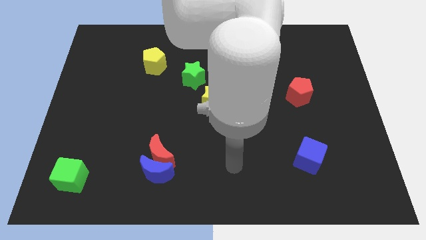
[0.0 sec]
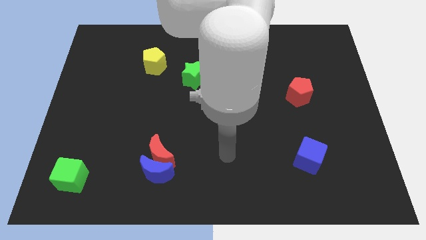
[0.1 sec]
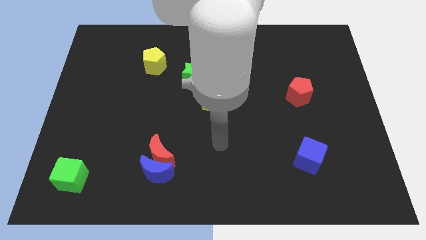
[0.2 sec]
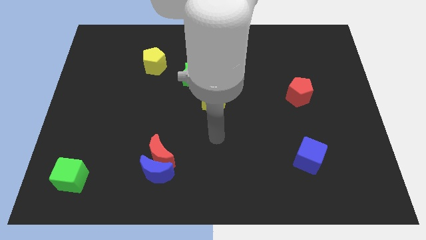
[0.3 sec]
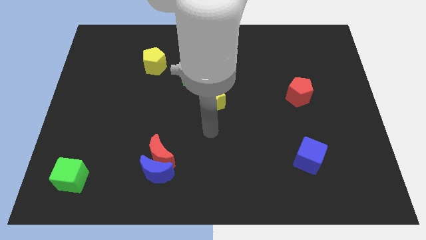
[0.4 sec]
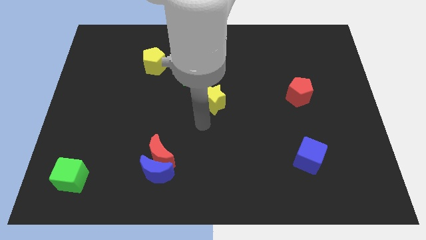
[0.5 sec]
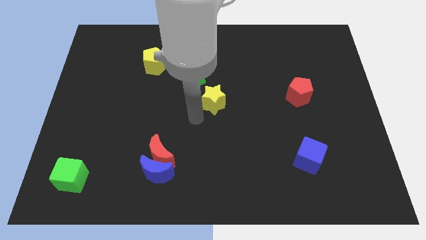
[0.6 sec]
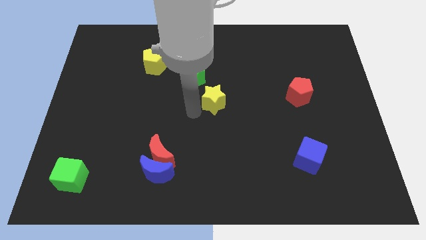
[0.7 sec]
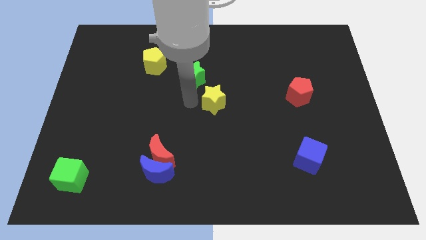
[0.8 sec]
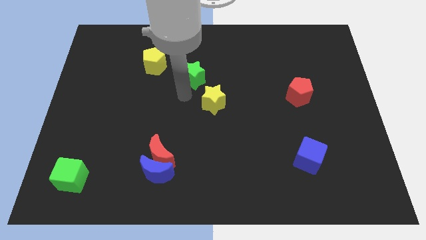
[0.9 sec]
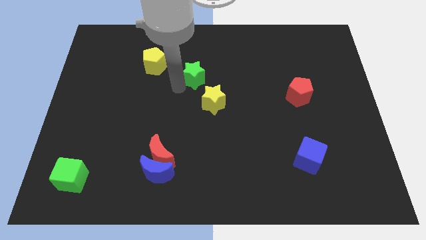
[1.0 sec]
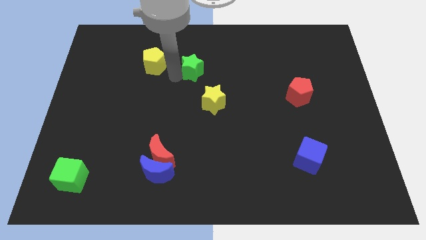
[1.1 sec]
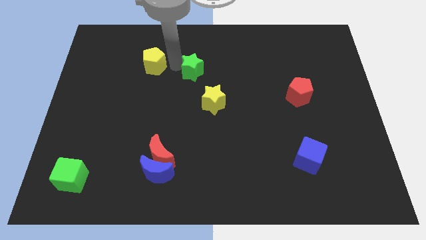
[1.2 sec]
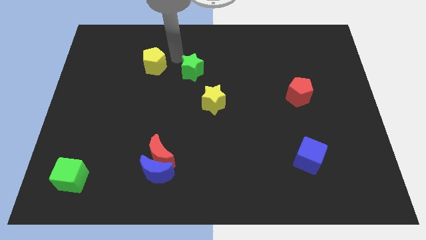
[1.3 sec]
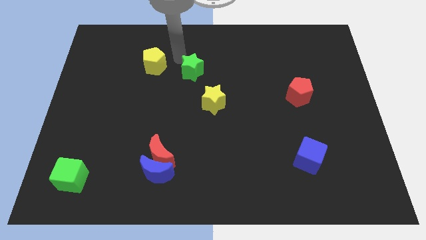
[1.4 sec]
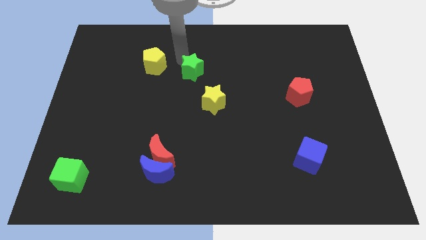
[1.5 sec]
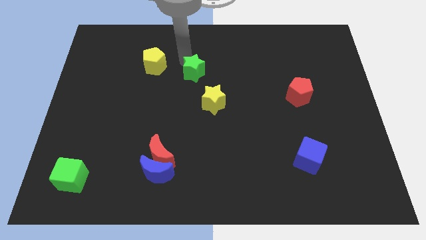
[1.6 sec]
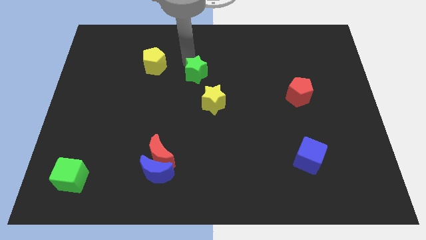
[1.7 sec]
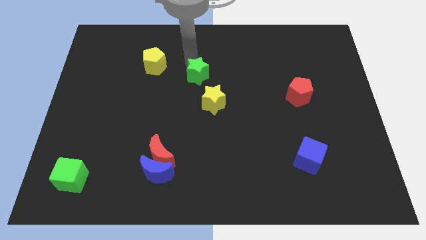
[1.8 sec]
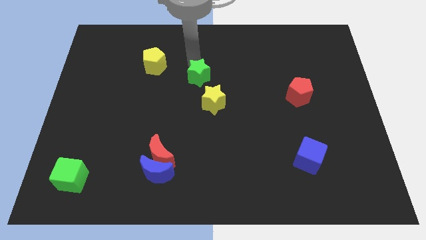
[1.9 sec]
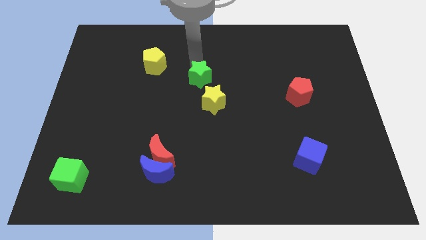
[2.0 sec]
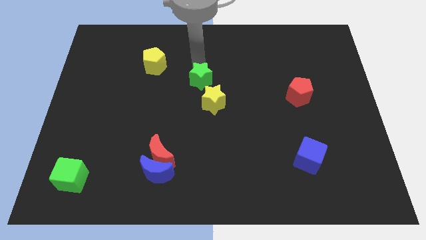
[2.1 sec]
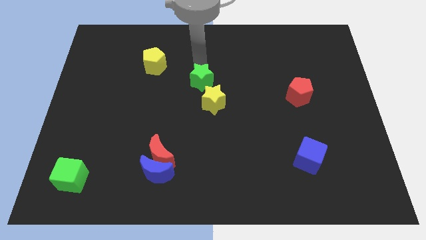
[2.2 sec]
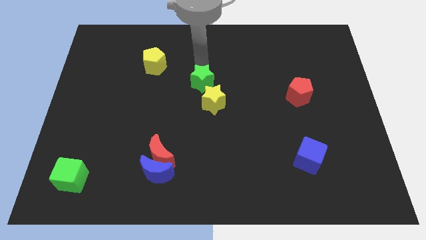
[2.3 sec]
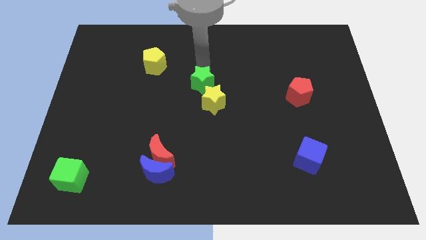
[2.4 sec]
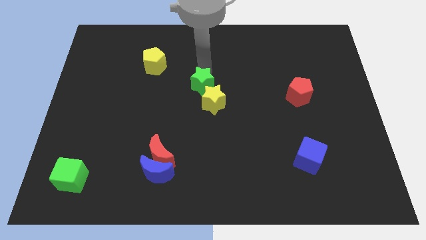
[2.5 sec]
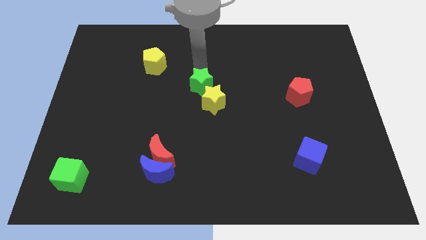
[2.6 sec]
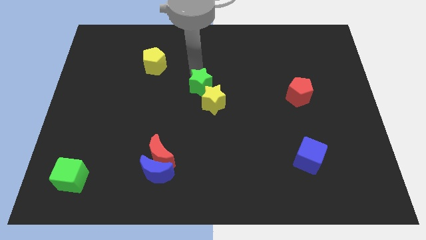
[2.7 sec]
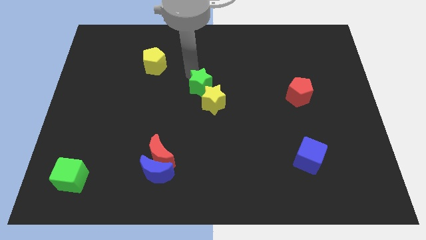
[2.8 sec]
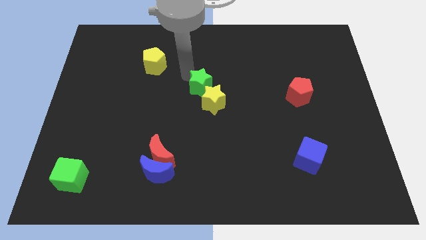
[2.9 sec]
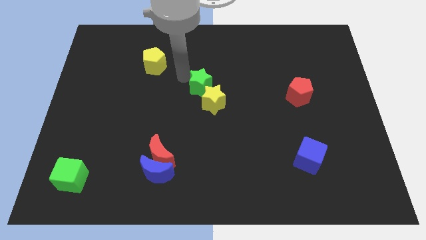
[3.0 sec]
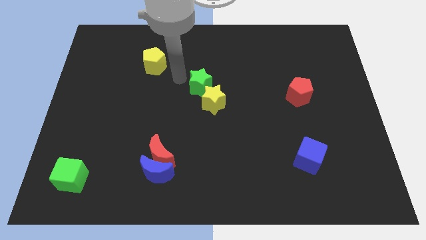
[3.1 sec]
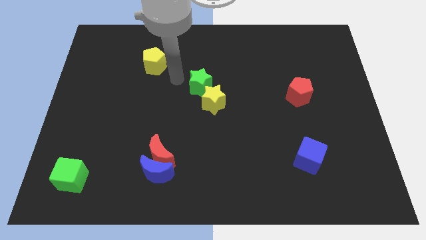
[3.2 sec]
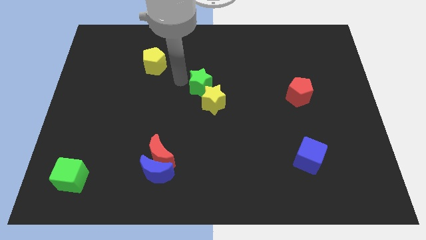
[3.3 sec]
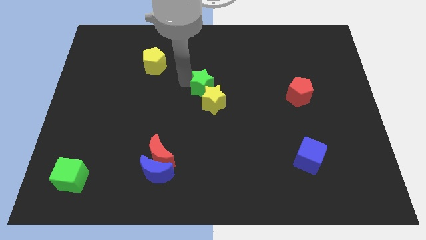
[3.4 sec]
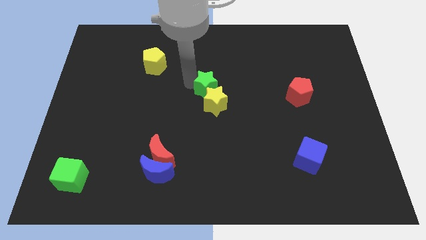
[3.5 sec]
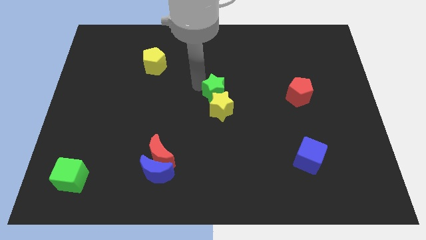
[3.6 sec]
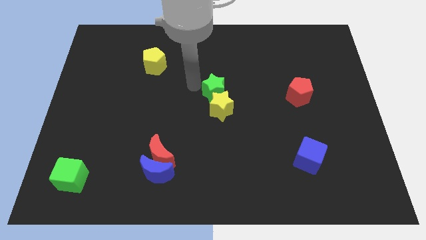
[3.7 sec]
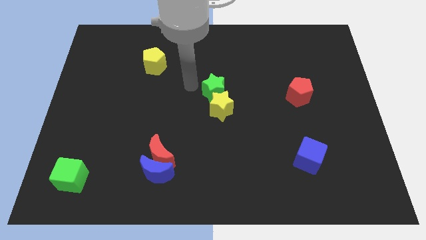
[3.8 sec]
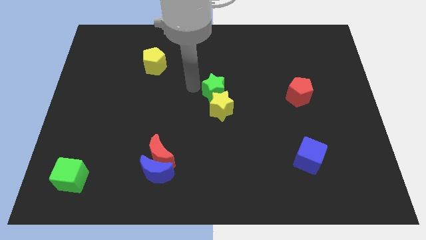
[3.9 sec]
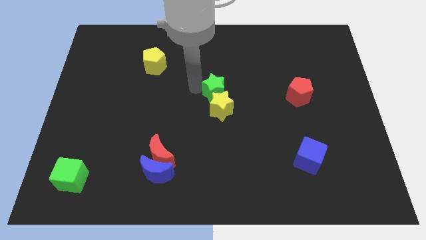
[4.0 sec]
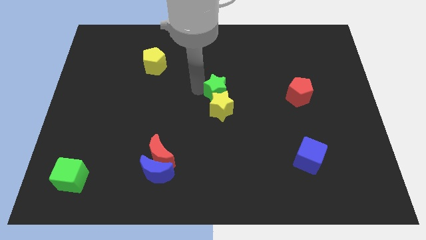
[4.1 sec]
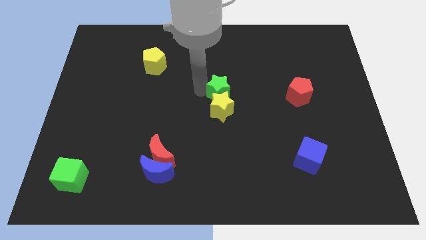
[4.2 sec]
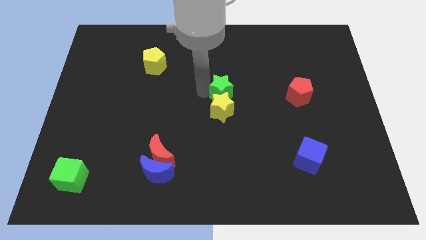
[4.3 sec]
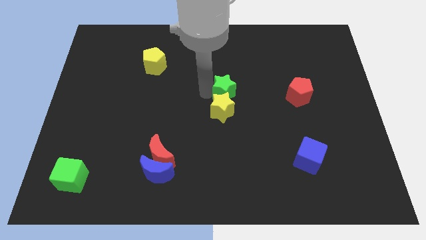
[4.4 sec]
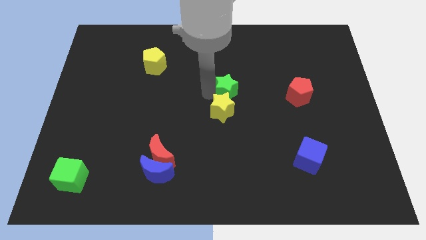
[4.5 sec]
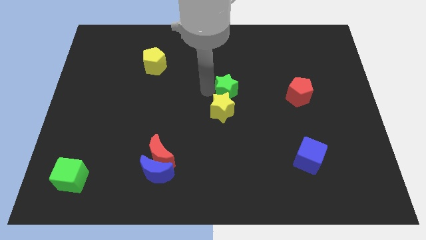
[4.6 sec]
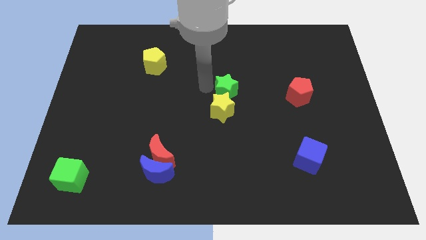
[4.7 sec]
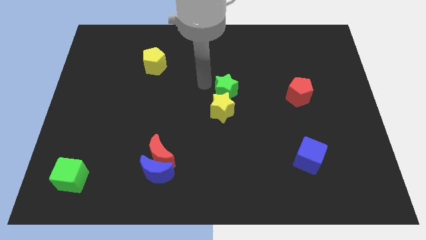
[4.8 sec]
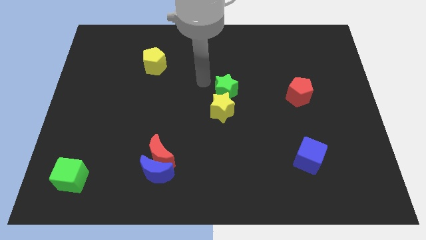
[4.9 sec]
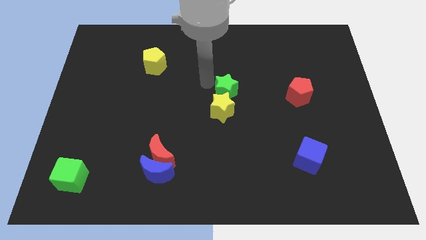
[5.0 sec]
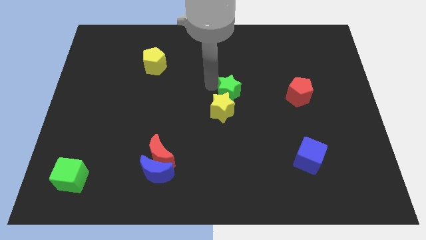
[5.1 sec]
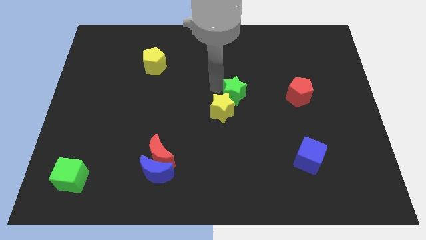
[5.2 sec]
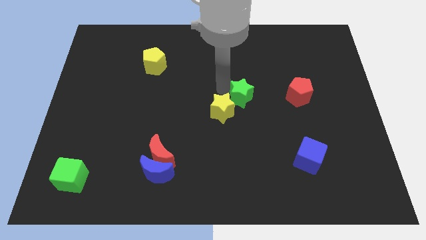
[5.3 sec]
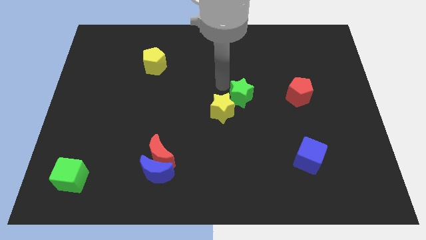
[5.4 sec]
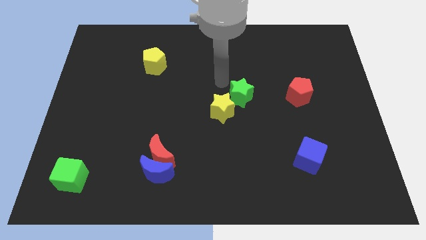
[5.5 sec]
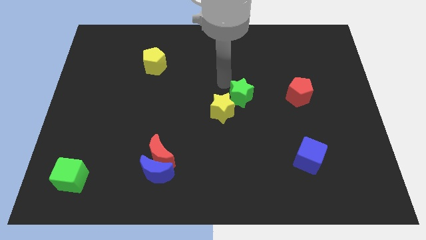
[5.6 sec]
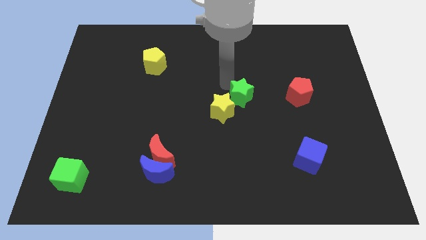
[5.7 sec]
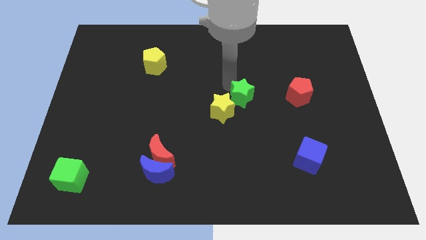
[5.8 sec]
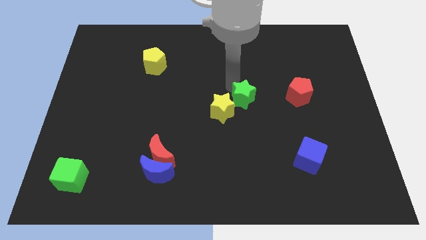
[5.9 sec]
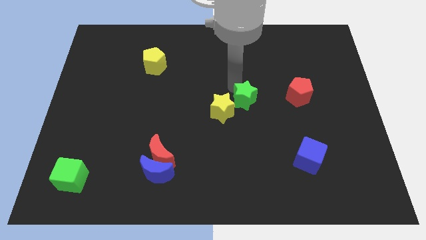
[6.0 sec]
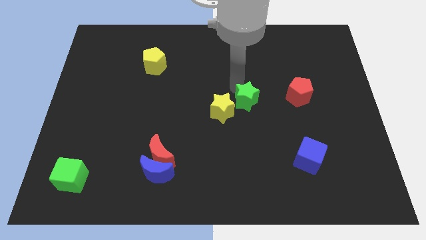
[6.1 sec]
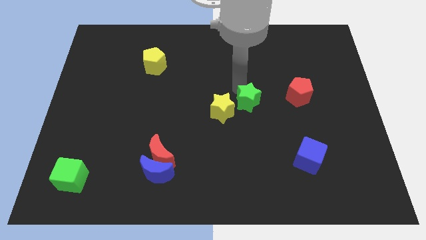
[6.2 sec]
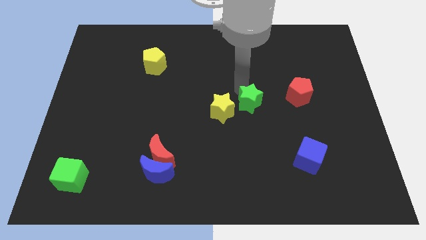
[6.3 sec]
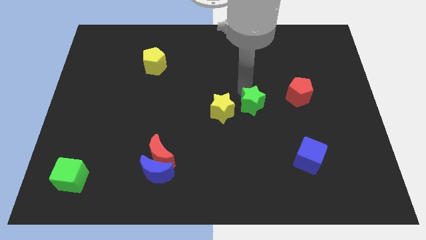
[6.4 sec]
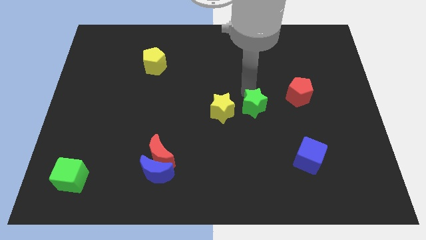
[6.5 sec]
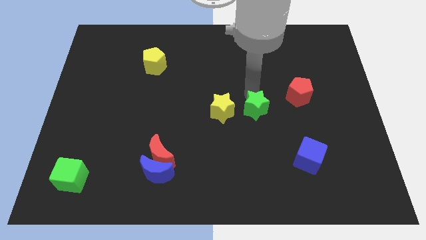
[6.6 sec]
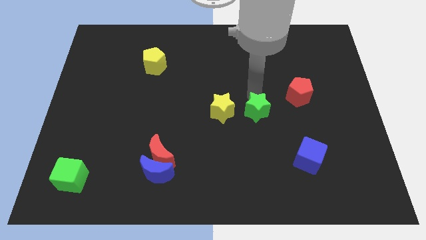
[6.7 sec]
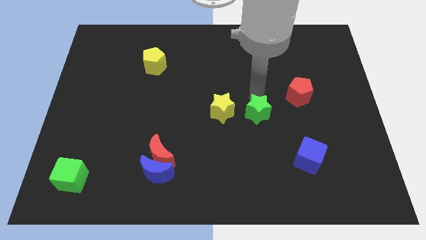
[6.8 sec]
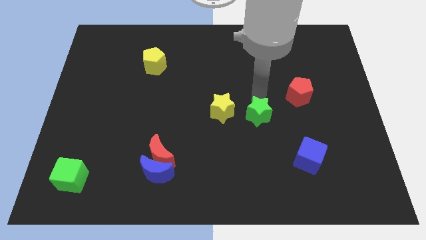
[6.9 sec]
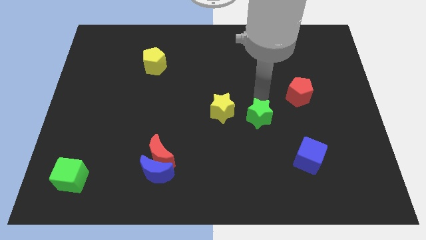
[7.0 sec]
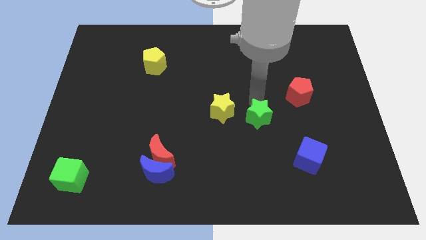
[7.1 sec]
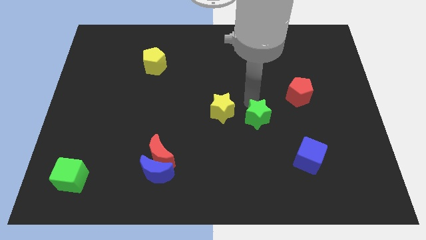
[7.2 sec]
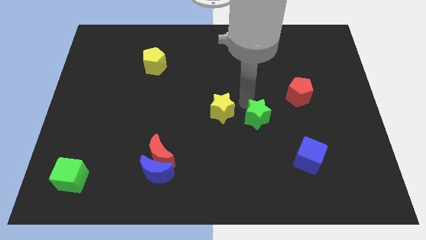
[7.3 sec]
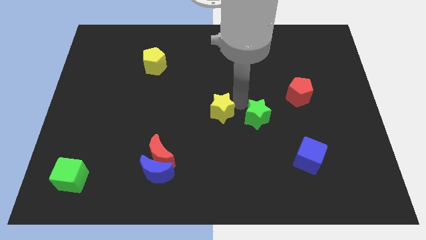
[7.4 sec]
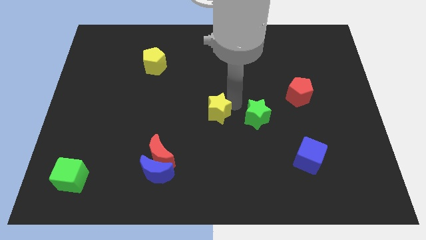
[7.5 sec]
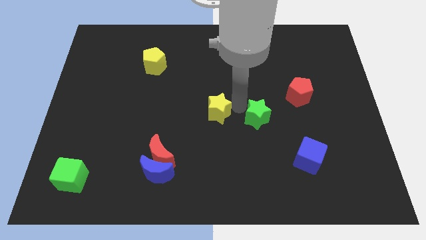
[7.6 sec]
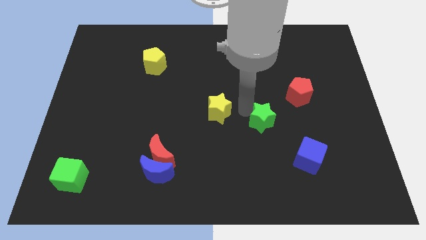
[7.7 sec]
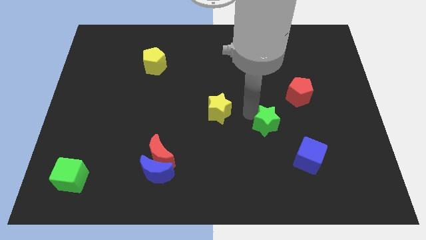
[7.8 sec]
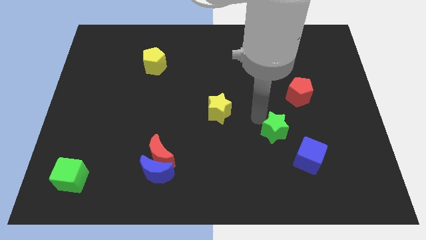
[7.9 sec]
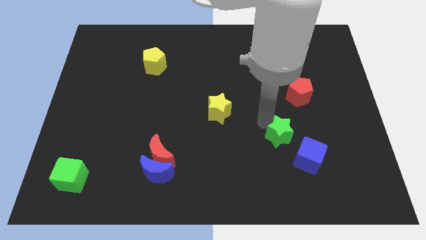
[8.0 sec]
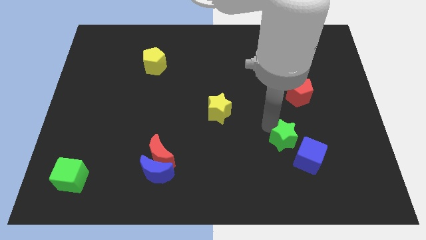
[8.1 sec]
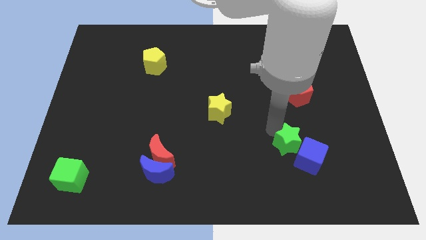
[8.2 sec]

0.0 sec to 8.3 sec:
push the green star next to the blue cube
